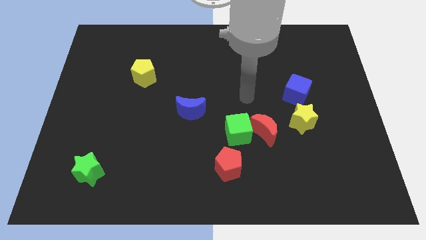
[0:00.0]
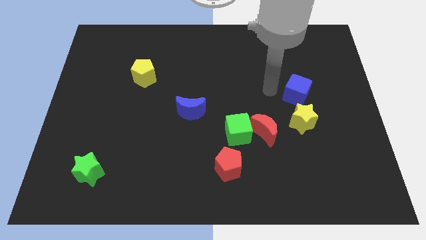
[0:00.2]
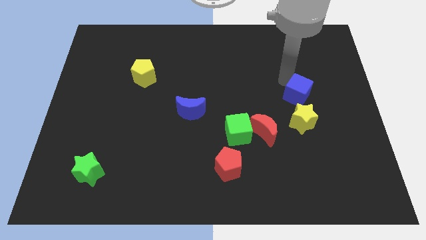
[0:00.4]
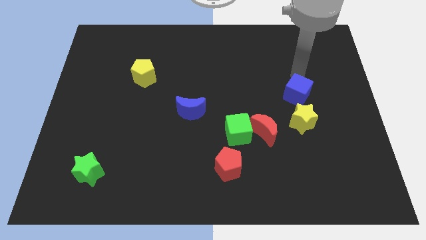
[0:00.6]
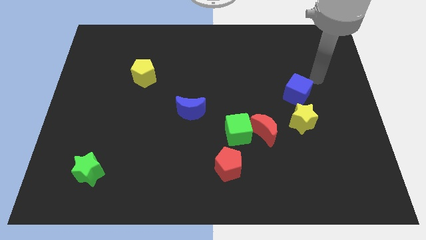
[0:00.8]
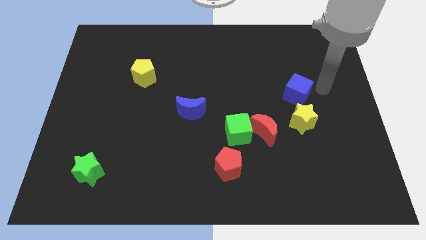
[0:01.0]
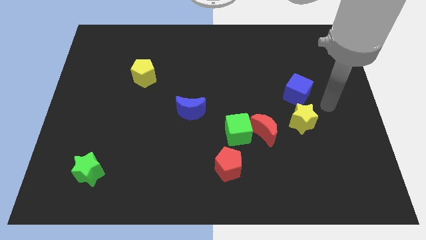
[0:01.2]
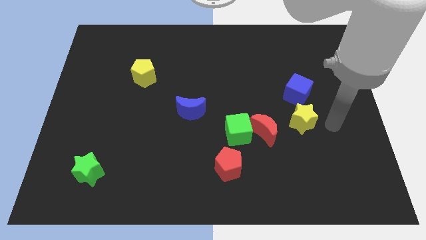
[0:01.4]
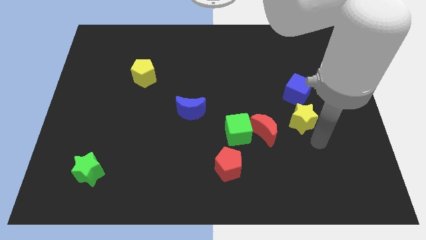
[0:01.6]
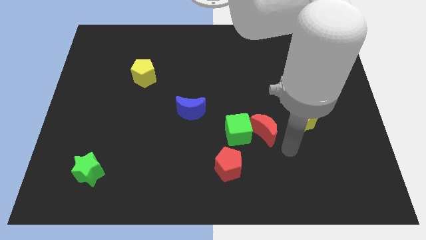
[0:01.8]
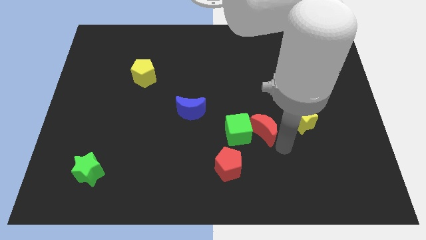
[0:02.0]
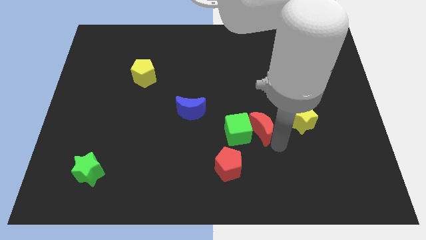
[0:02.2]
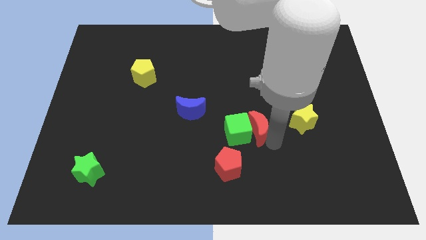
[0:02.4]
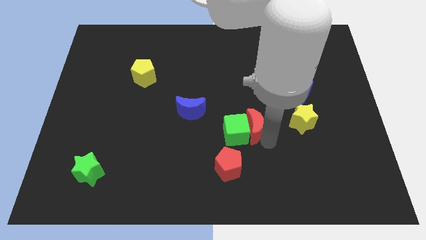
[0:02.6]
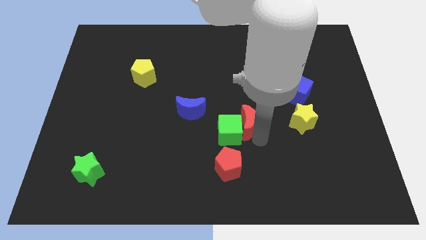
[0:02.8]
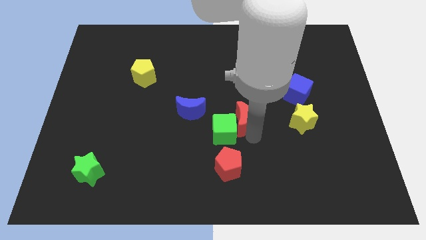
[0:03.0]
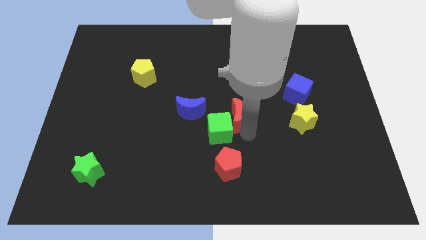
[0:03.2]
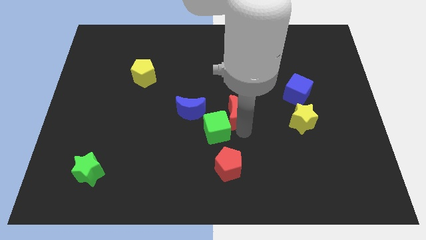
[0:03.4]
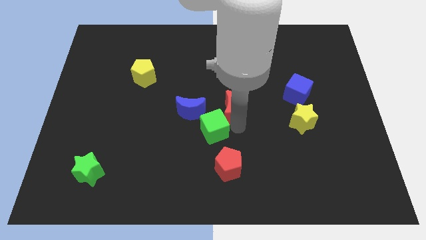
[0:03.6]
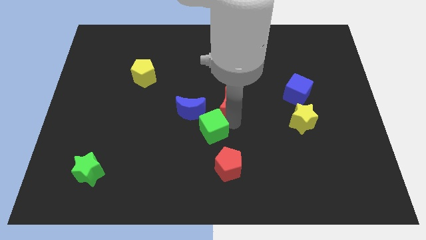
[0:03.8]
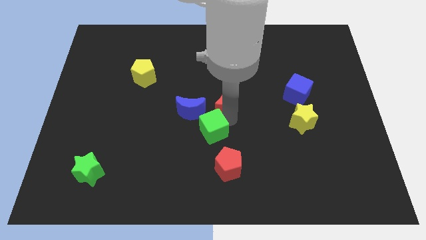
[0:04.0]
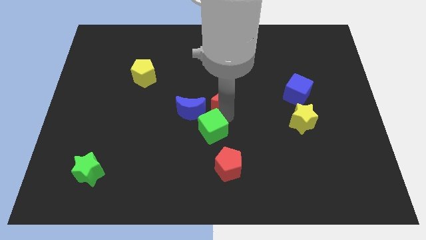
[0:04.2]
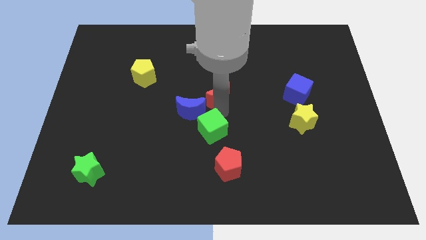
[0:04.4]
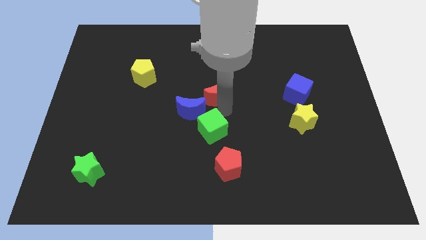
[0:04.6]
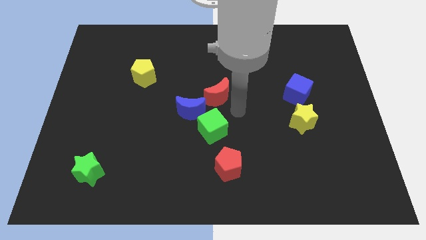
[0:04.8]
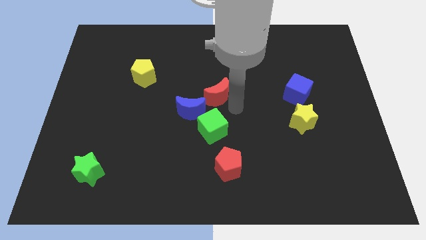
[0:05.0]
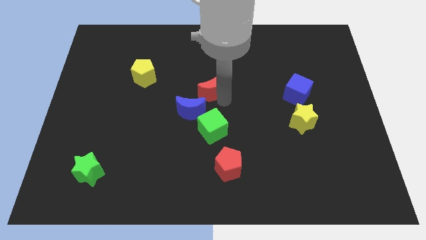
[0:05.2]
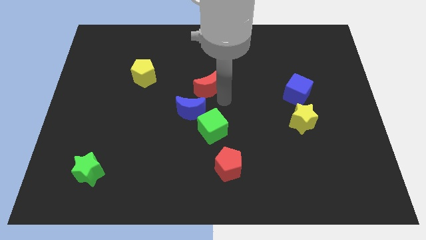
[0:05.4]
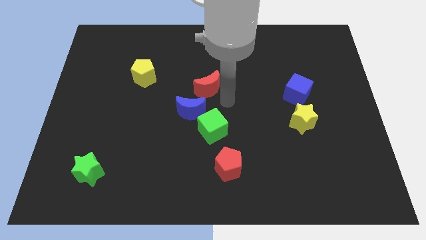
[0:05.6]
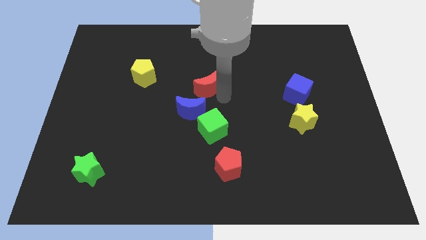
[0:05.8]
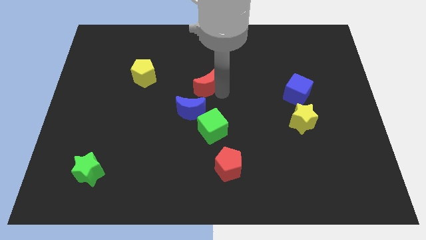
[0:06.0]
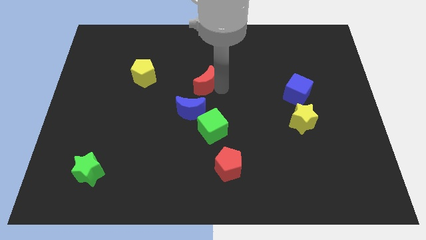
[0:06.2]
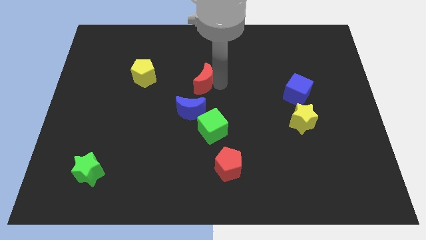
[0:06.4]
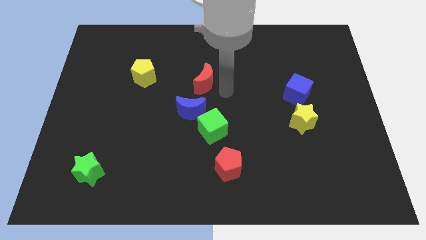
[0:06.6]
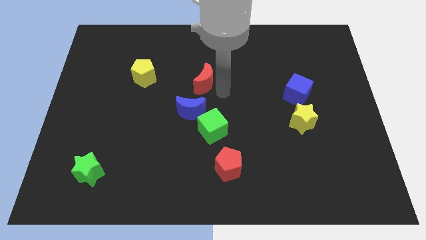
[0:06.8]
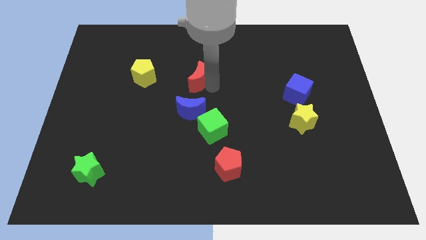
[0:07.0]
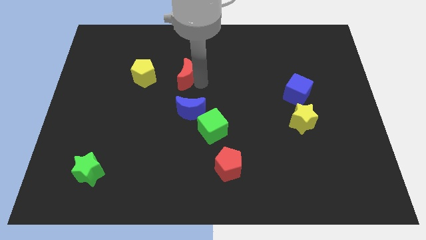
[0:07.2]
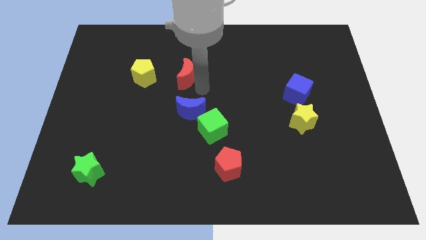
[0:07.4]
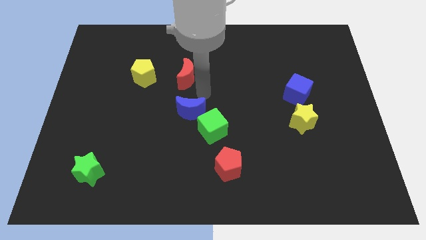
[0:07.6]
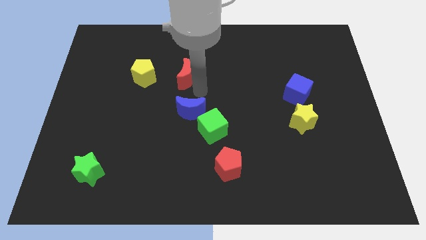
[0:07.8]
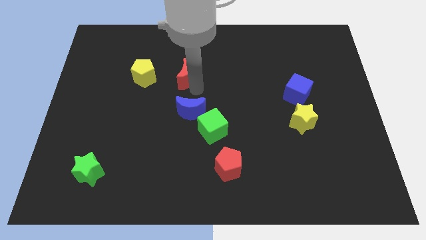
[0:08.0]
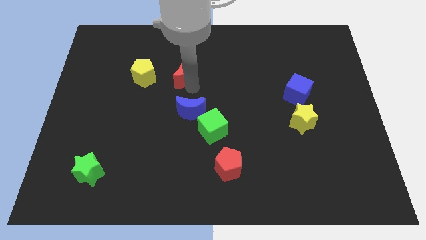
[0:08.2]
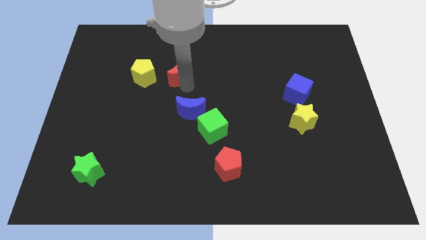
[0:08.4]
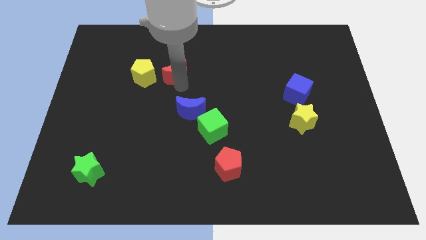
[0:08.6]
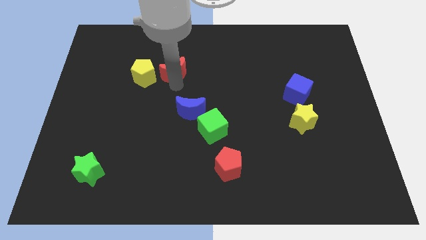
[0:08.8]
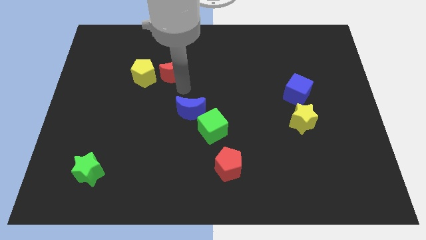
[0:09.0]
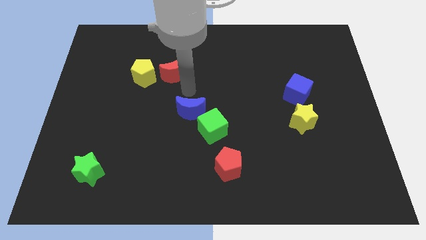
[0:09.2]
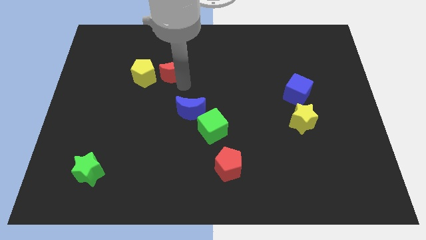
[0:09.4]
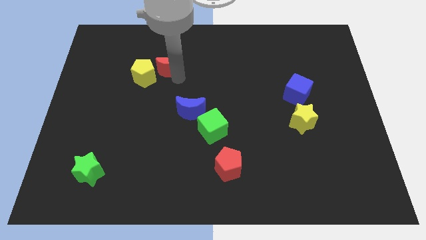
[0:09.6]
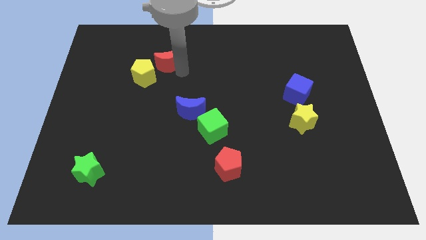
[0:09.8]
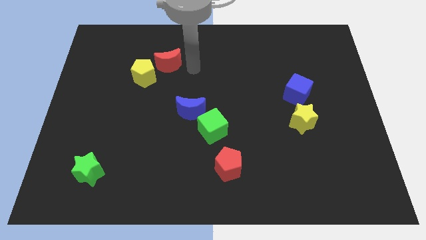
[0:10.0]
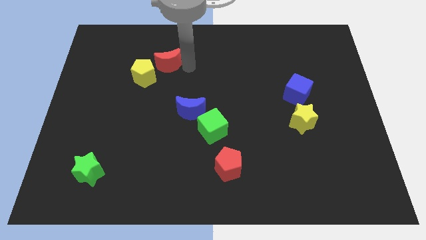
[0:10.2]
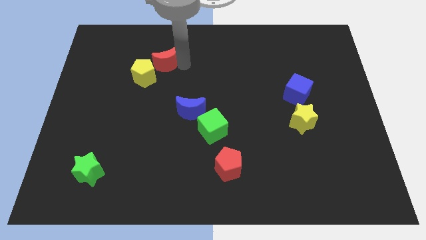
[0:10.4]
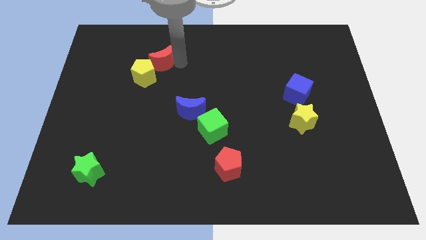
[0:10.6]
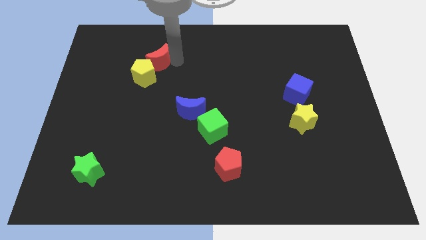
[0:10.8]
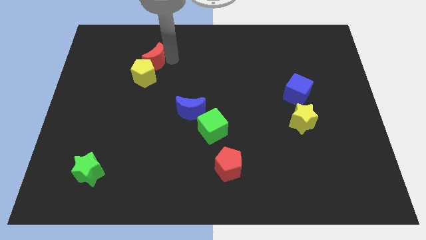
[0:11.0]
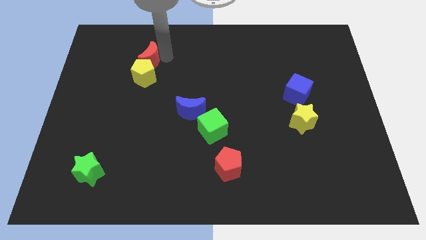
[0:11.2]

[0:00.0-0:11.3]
move the red moon to the top left side of the yellow pentagon

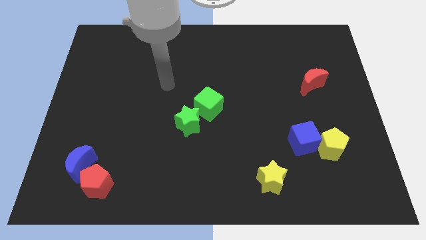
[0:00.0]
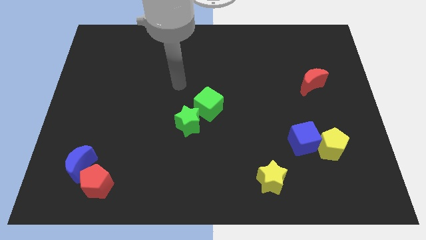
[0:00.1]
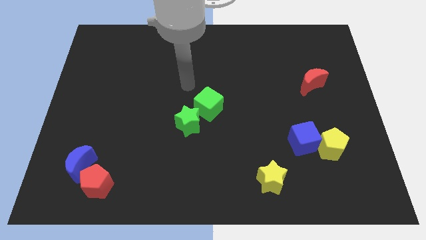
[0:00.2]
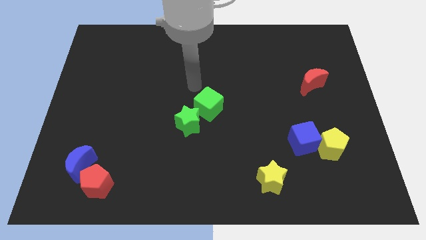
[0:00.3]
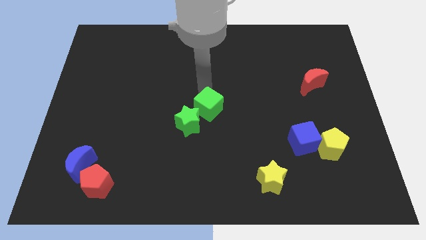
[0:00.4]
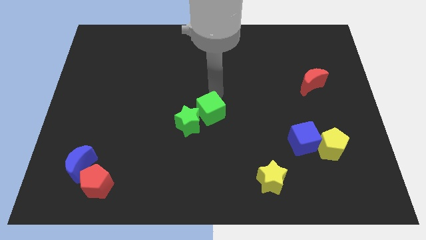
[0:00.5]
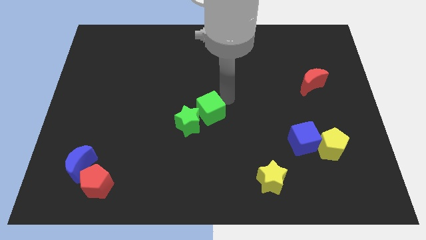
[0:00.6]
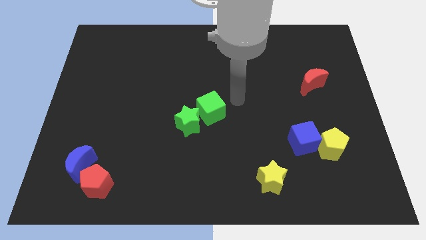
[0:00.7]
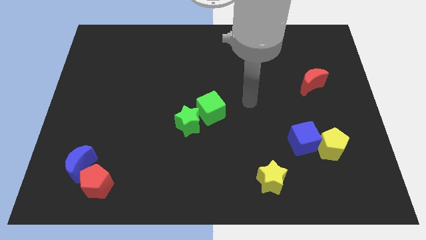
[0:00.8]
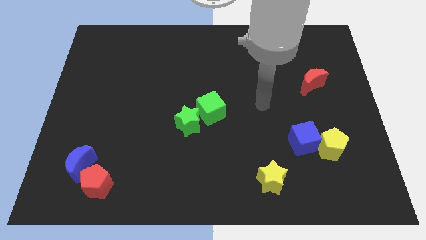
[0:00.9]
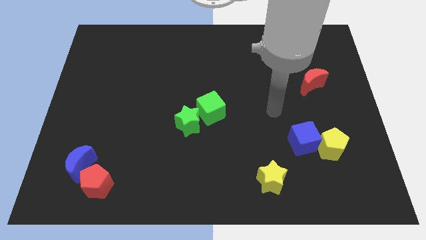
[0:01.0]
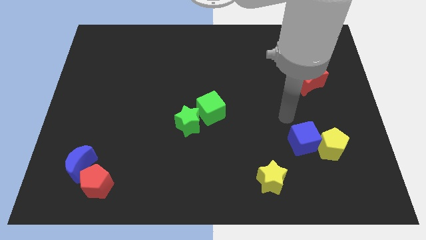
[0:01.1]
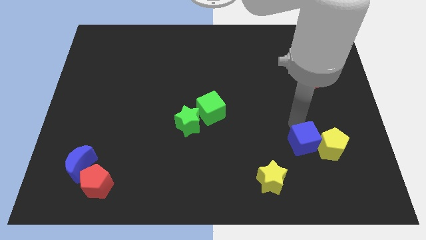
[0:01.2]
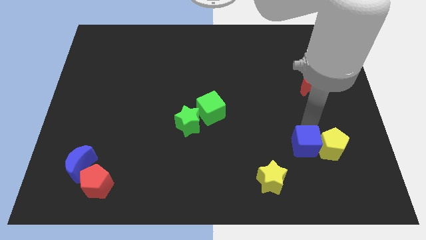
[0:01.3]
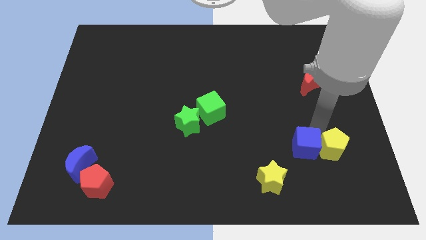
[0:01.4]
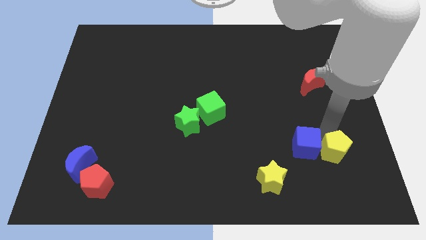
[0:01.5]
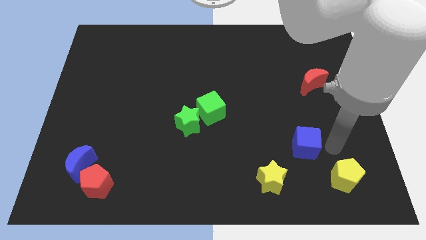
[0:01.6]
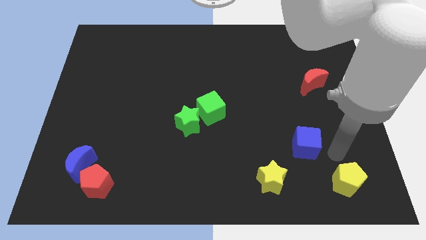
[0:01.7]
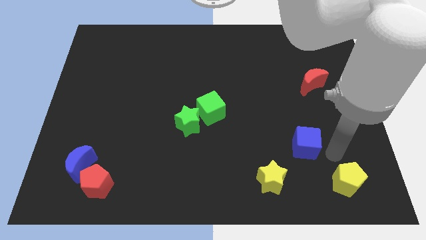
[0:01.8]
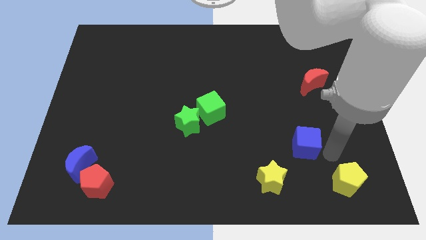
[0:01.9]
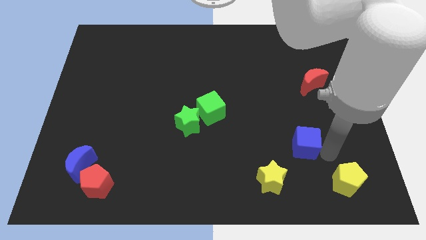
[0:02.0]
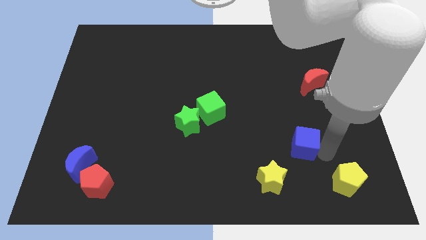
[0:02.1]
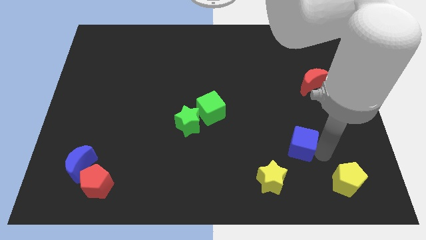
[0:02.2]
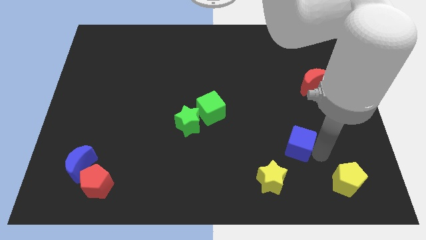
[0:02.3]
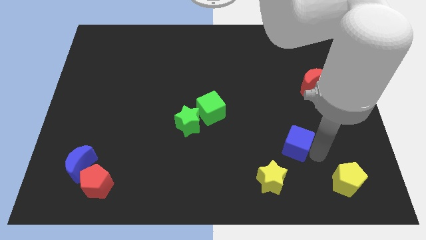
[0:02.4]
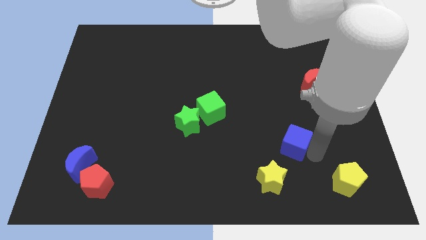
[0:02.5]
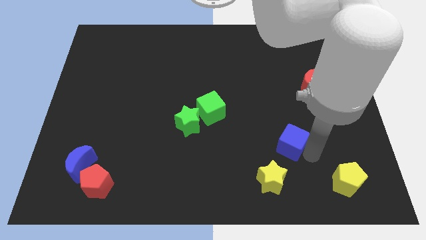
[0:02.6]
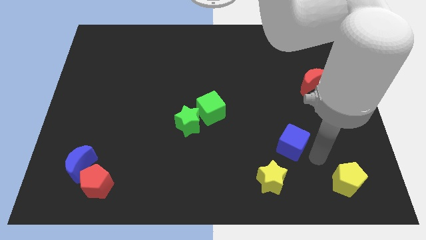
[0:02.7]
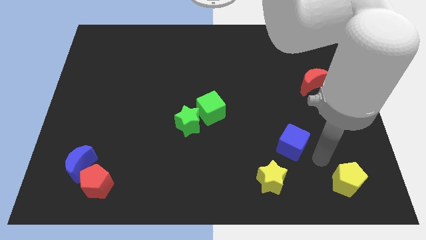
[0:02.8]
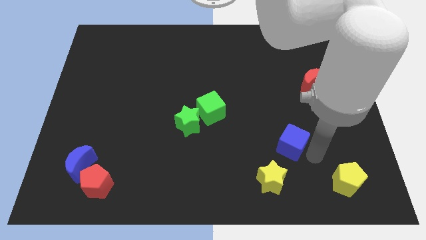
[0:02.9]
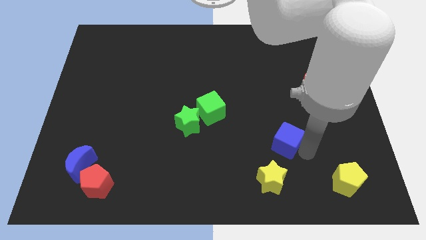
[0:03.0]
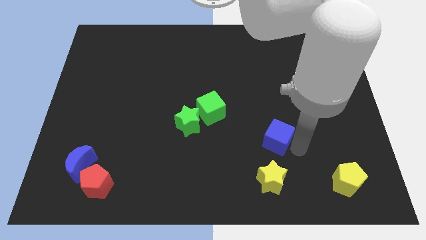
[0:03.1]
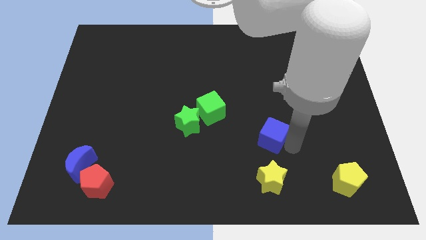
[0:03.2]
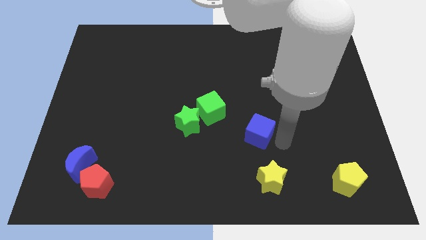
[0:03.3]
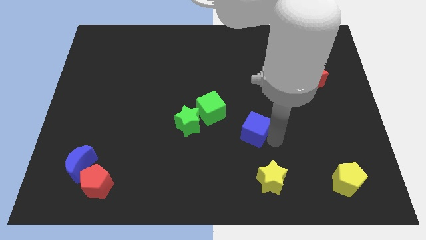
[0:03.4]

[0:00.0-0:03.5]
move the blue cube just right of the green star
